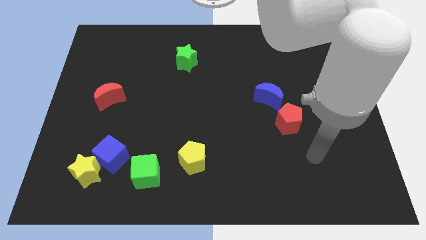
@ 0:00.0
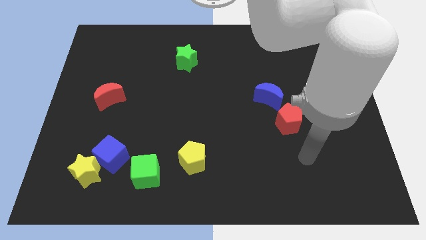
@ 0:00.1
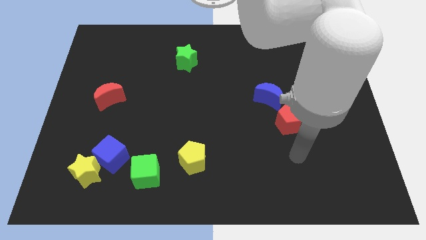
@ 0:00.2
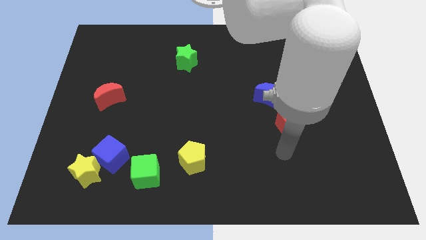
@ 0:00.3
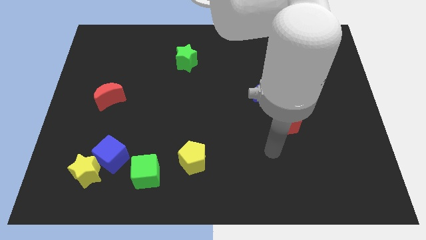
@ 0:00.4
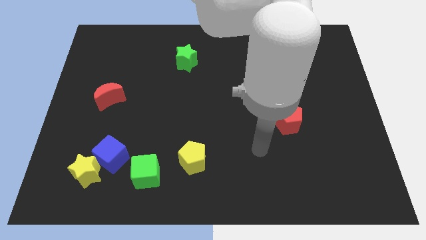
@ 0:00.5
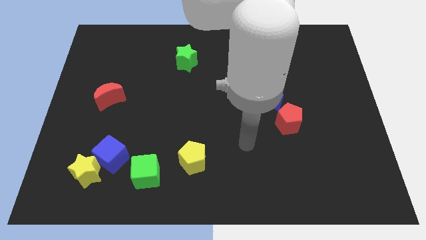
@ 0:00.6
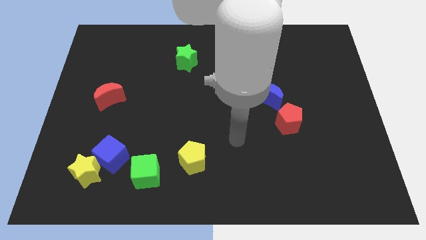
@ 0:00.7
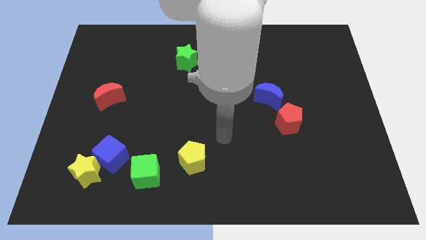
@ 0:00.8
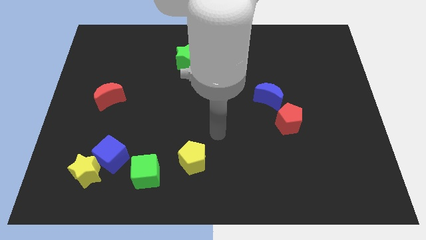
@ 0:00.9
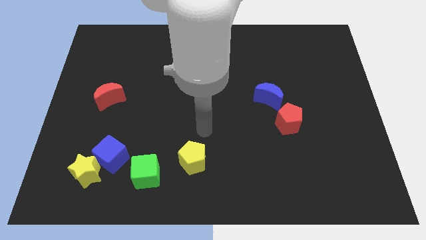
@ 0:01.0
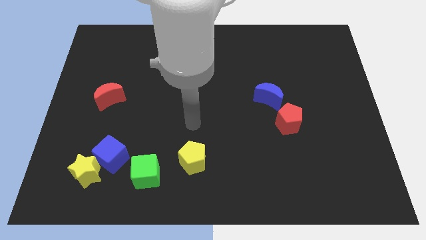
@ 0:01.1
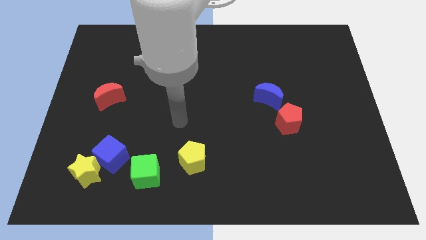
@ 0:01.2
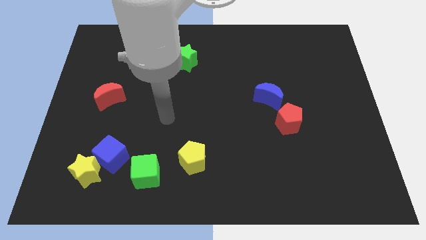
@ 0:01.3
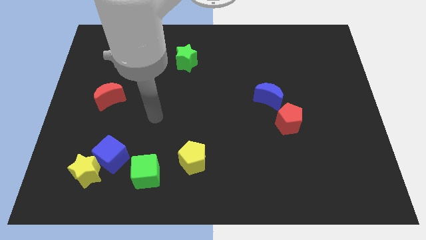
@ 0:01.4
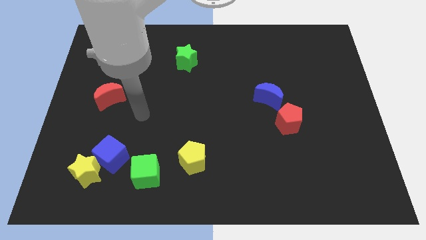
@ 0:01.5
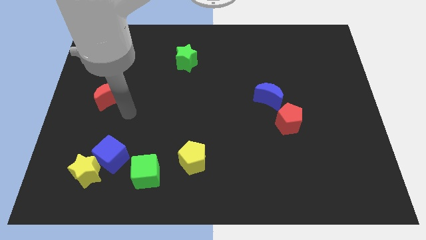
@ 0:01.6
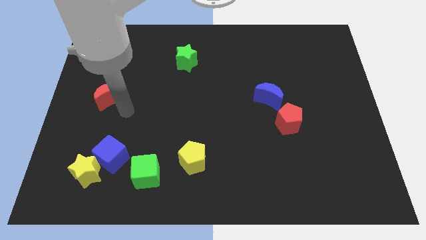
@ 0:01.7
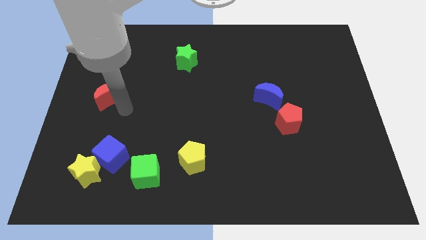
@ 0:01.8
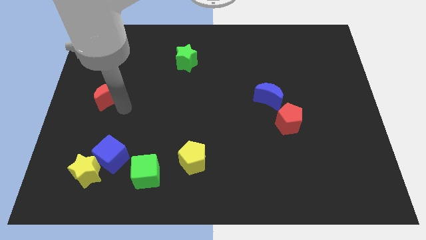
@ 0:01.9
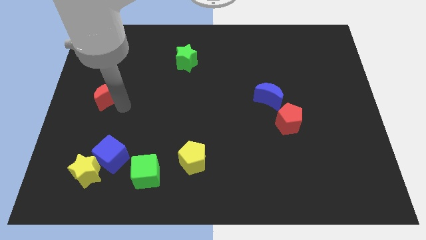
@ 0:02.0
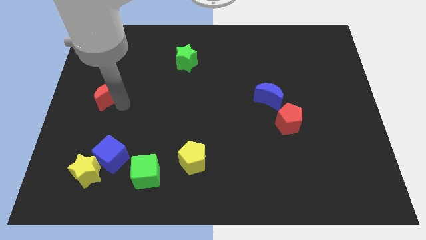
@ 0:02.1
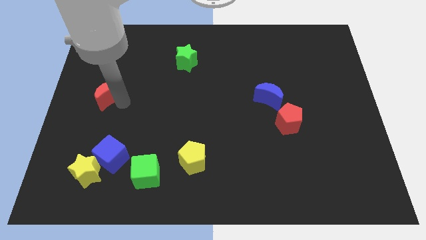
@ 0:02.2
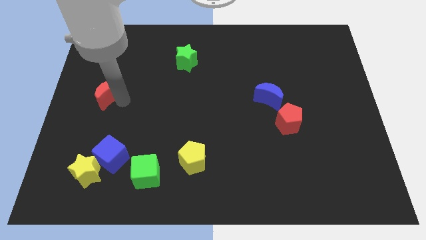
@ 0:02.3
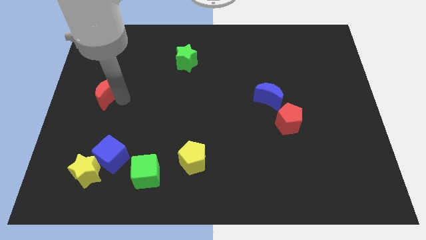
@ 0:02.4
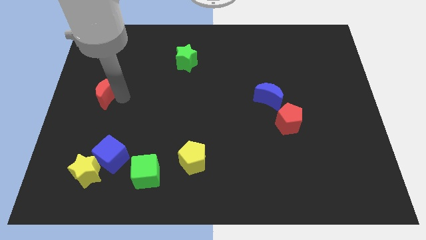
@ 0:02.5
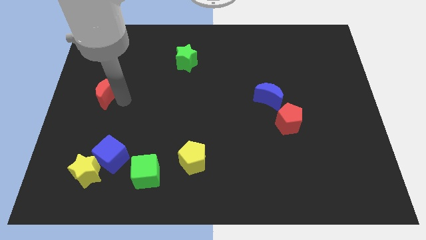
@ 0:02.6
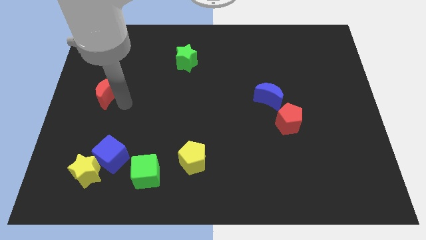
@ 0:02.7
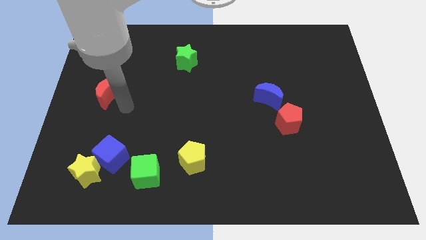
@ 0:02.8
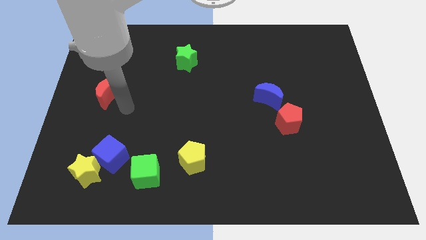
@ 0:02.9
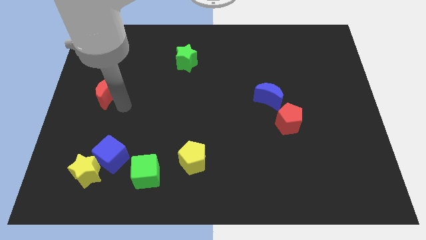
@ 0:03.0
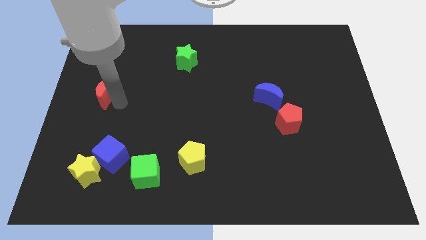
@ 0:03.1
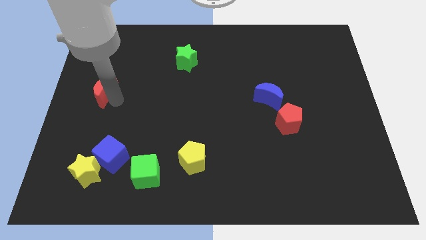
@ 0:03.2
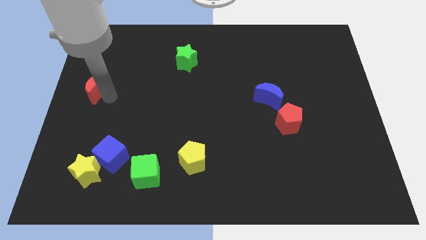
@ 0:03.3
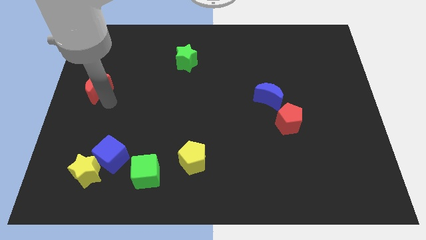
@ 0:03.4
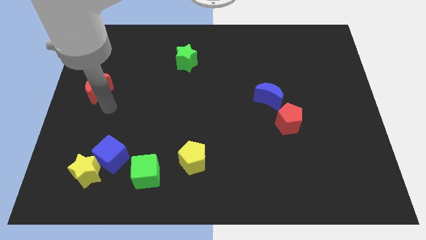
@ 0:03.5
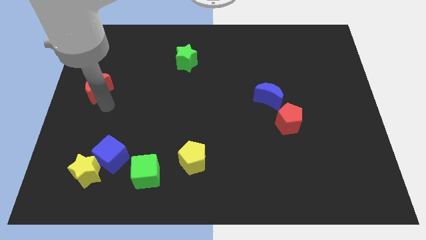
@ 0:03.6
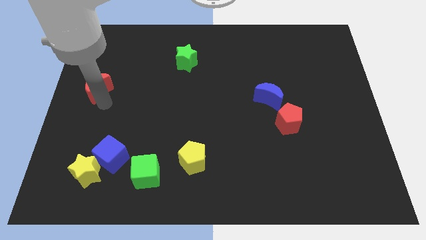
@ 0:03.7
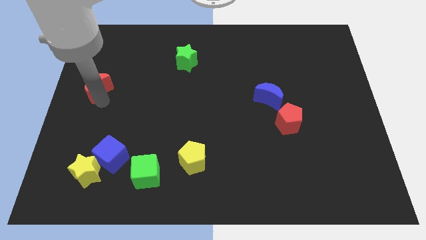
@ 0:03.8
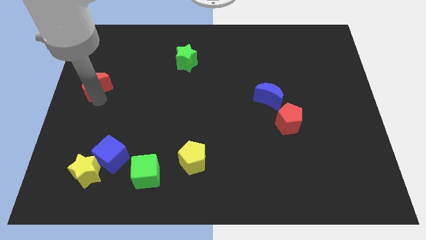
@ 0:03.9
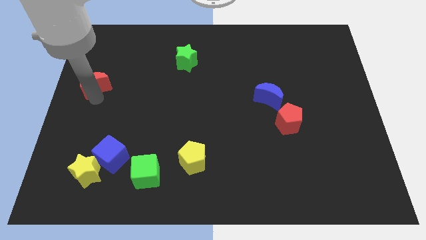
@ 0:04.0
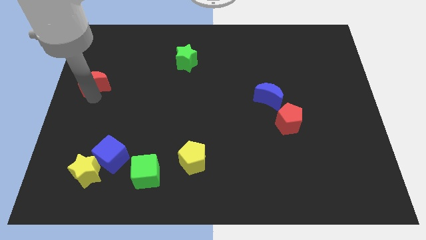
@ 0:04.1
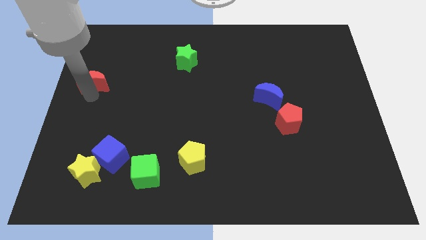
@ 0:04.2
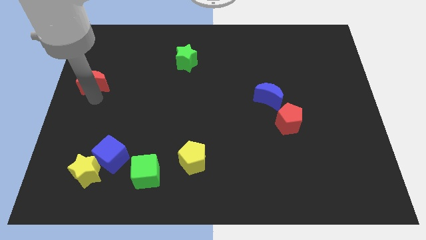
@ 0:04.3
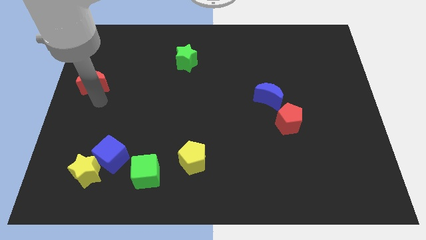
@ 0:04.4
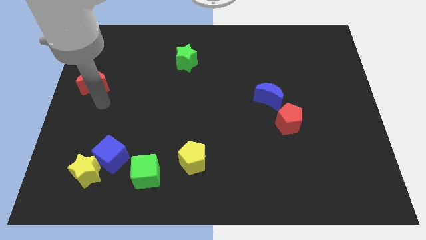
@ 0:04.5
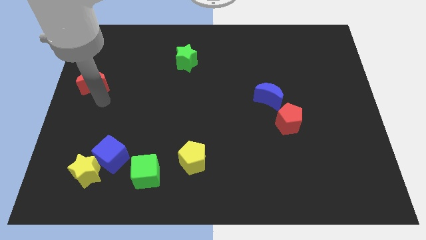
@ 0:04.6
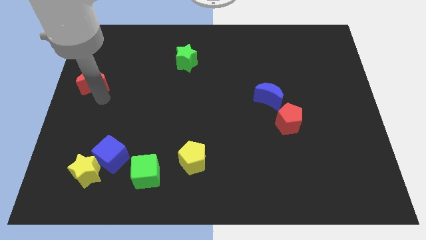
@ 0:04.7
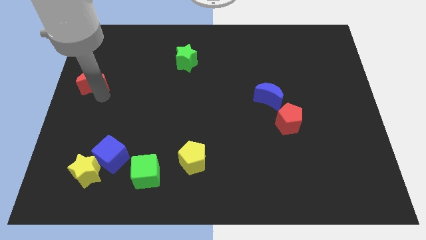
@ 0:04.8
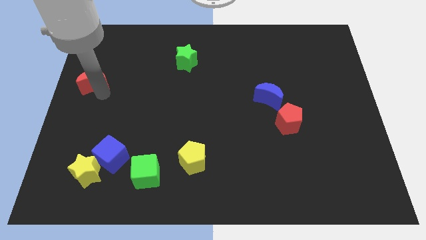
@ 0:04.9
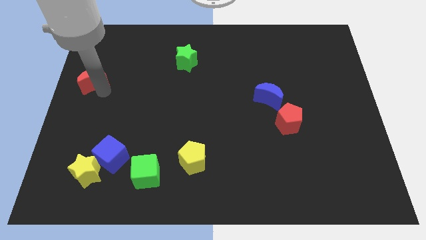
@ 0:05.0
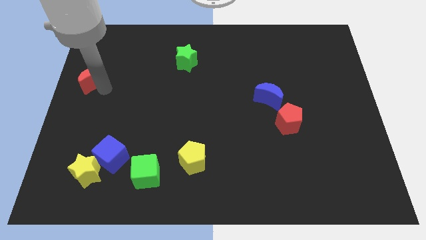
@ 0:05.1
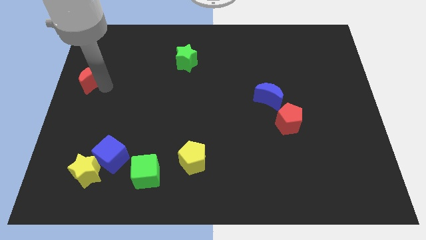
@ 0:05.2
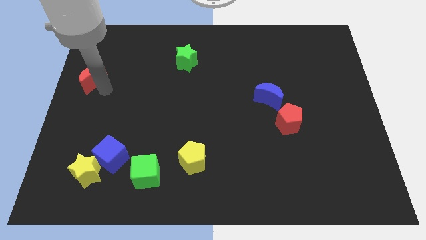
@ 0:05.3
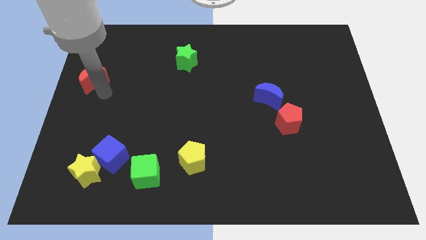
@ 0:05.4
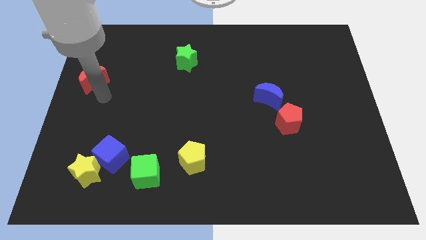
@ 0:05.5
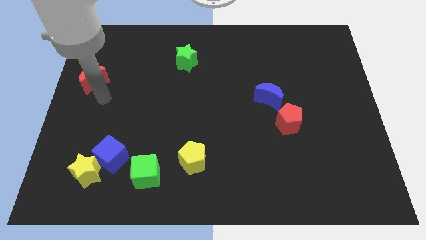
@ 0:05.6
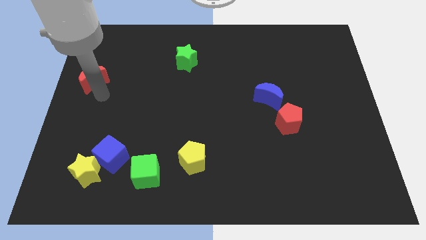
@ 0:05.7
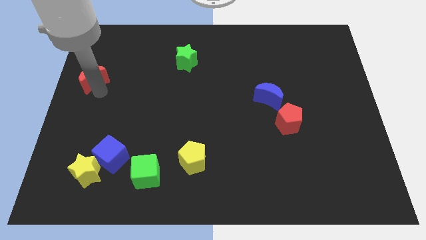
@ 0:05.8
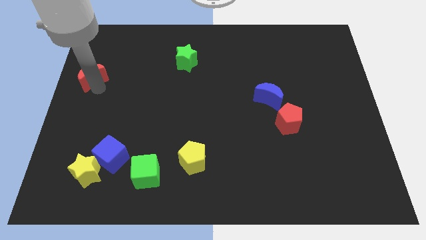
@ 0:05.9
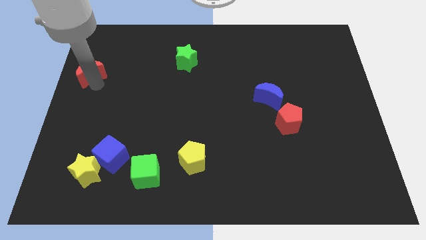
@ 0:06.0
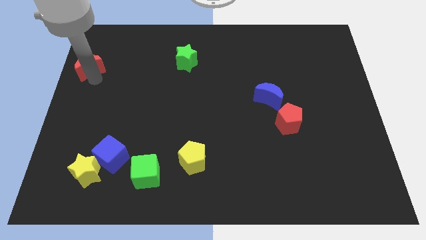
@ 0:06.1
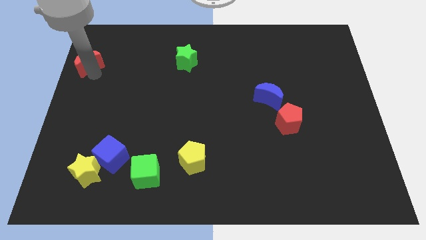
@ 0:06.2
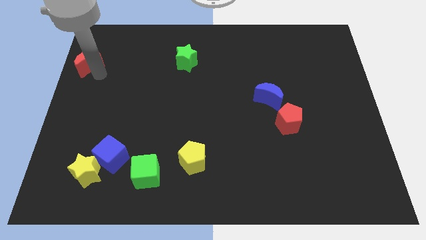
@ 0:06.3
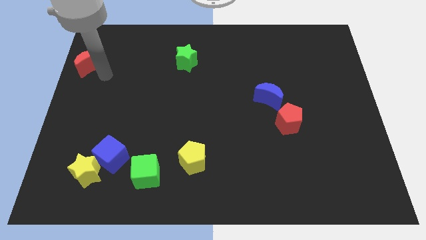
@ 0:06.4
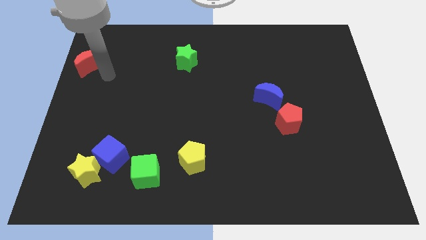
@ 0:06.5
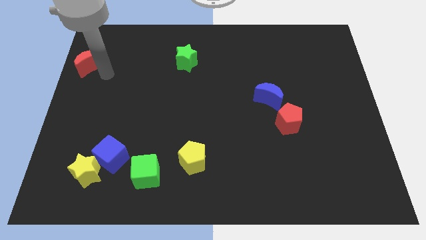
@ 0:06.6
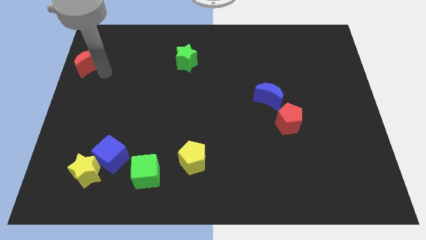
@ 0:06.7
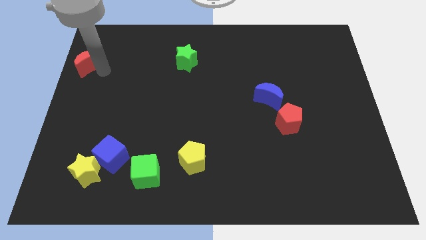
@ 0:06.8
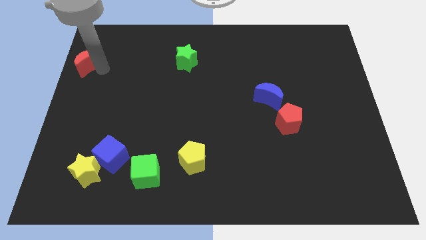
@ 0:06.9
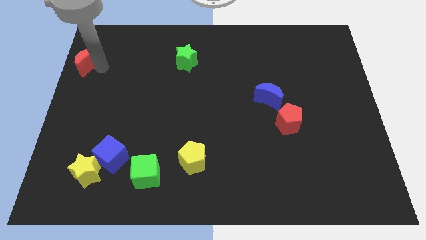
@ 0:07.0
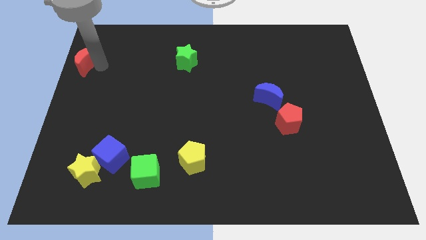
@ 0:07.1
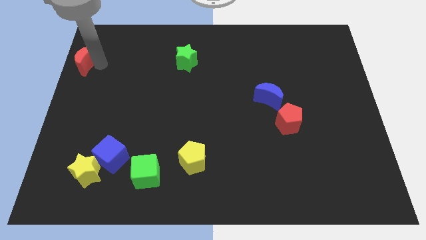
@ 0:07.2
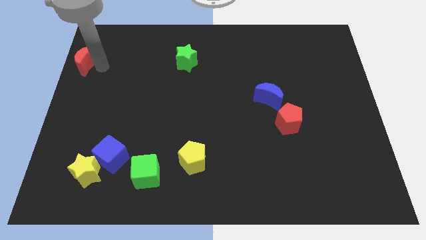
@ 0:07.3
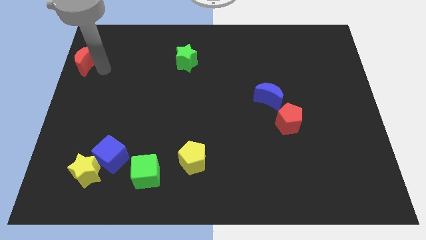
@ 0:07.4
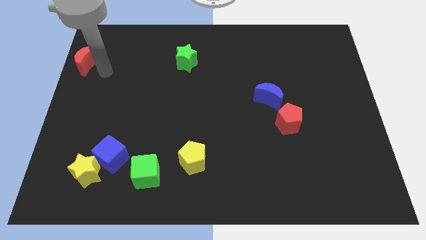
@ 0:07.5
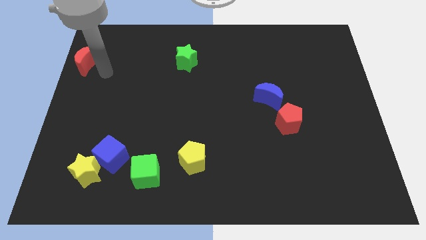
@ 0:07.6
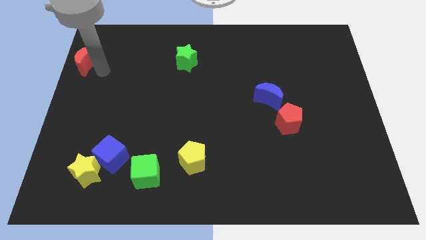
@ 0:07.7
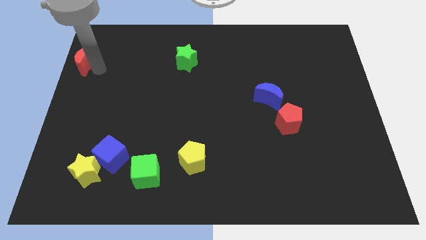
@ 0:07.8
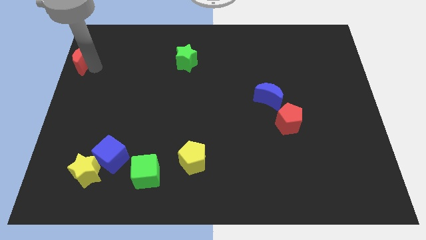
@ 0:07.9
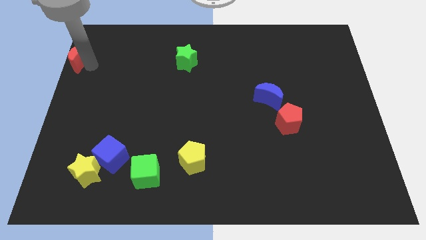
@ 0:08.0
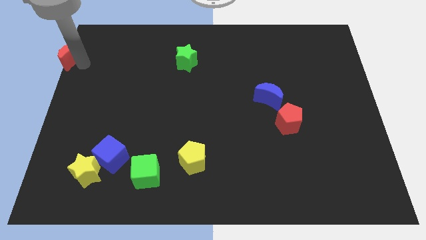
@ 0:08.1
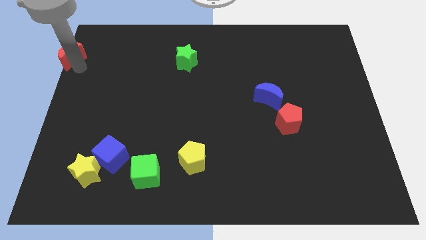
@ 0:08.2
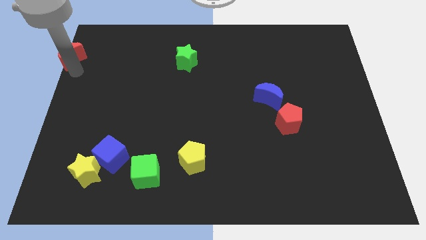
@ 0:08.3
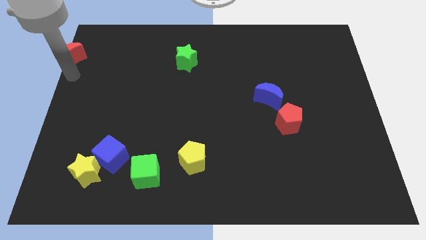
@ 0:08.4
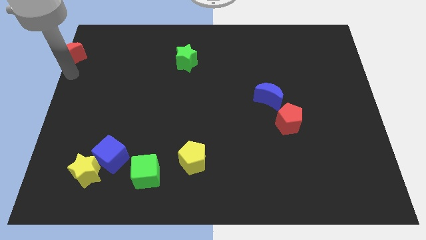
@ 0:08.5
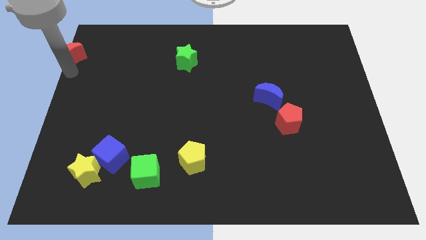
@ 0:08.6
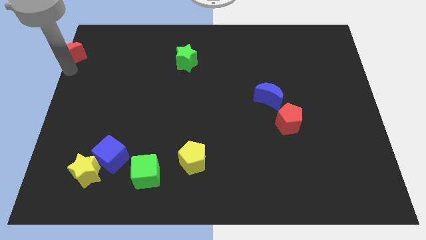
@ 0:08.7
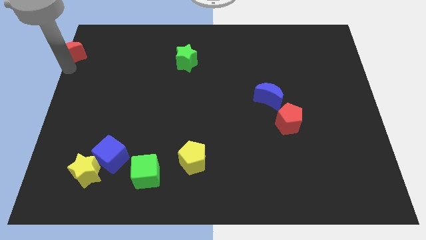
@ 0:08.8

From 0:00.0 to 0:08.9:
move the red moon to the top left of the board
